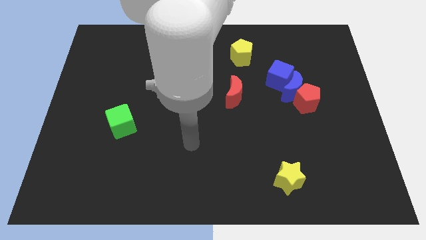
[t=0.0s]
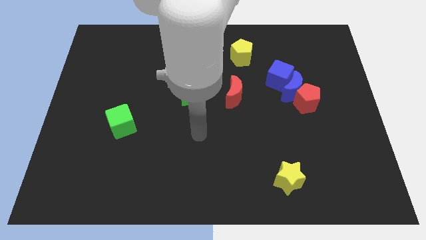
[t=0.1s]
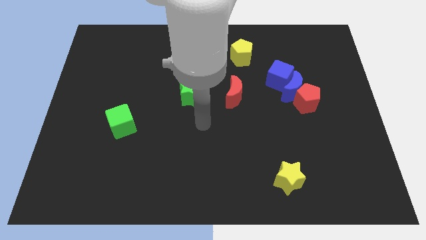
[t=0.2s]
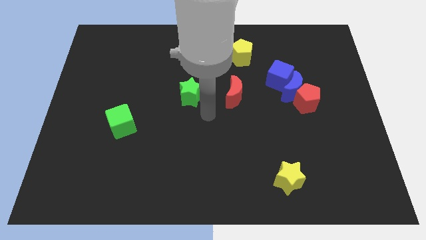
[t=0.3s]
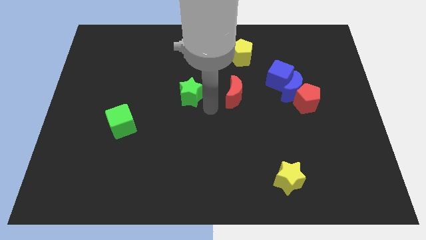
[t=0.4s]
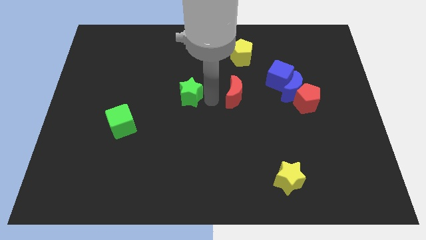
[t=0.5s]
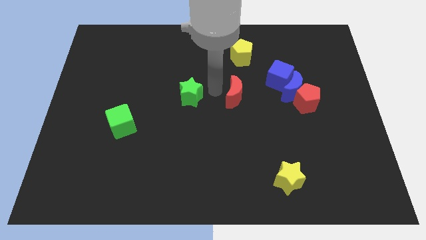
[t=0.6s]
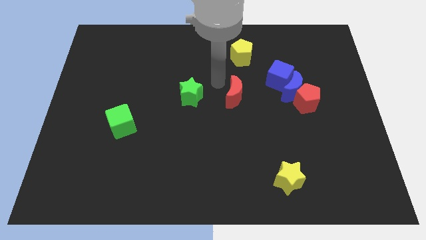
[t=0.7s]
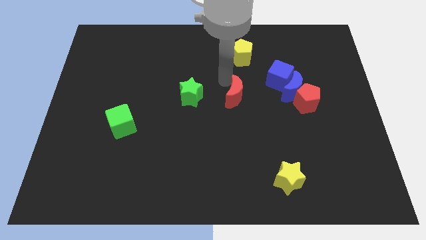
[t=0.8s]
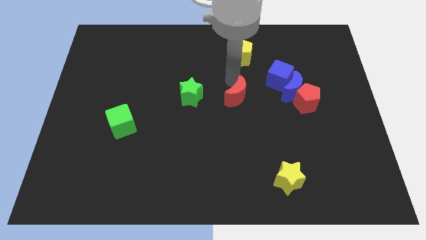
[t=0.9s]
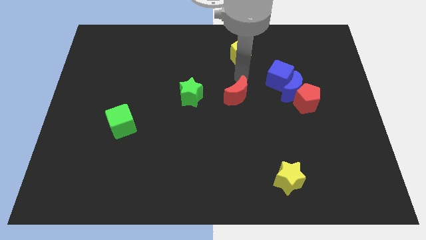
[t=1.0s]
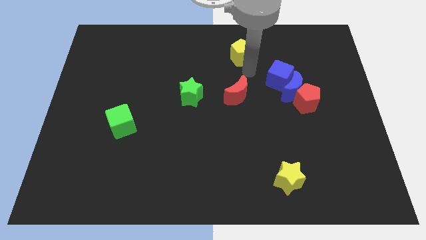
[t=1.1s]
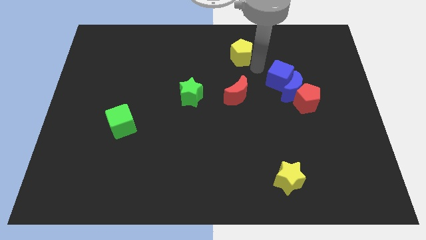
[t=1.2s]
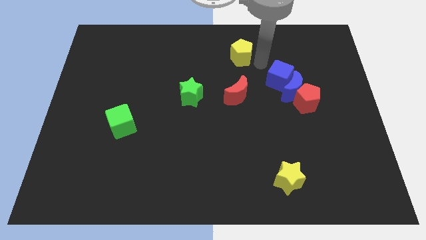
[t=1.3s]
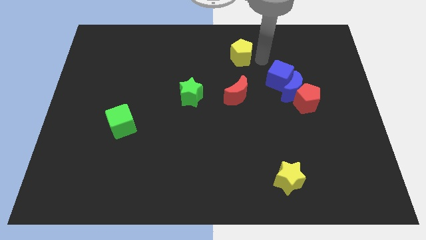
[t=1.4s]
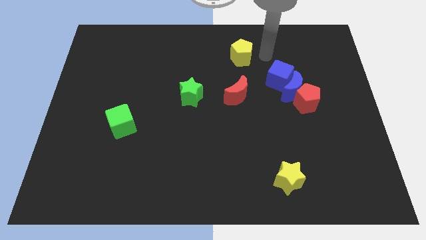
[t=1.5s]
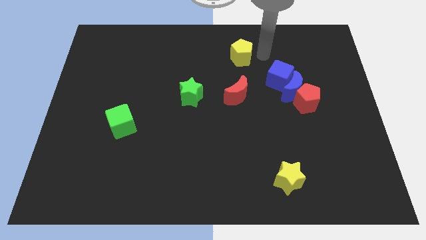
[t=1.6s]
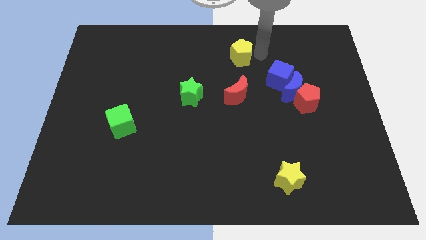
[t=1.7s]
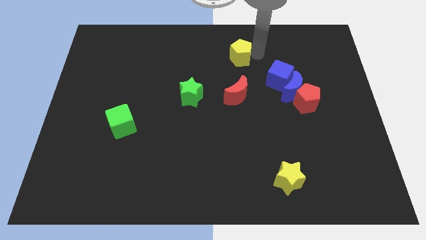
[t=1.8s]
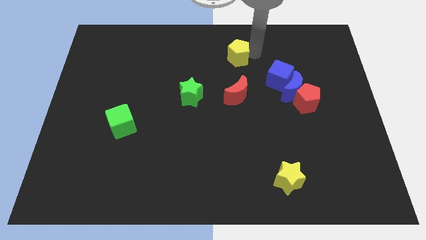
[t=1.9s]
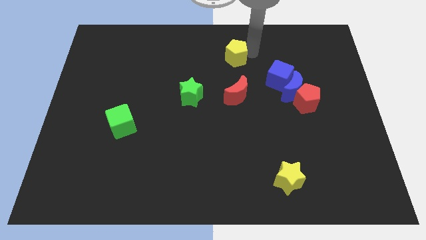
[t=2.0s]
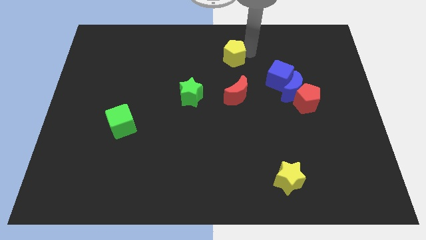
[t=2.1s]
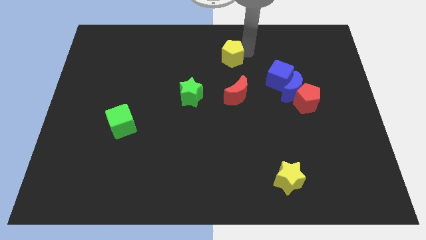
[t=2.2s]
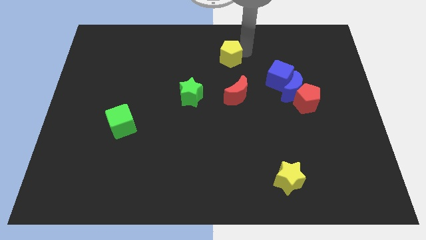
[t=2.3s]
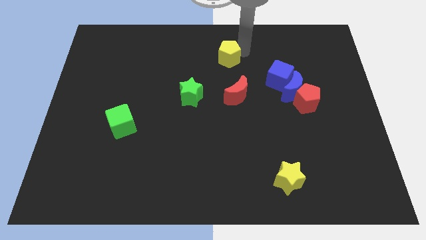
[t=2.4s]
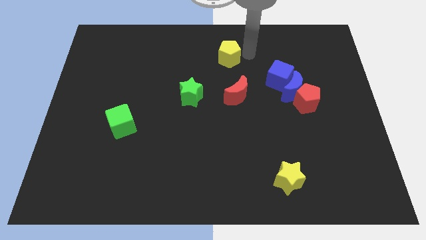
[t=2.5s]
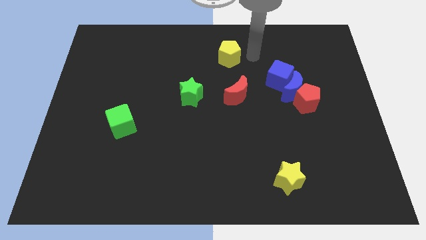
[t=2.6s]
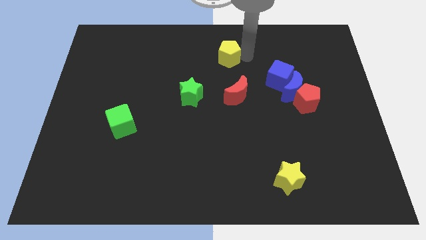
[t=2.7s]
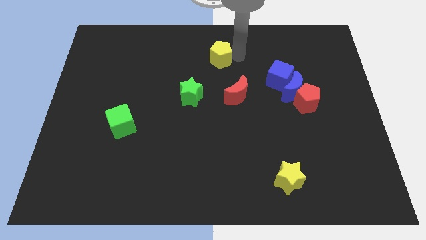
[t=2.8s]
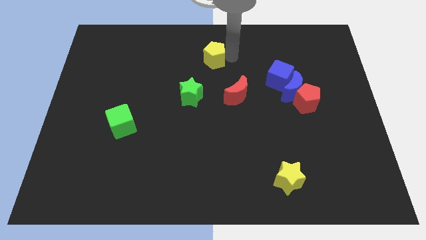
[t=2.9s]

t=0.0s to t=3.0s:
slide the yellow pentagon a bit left

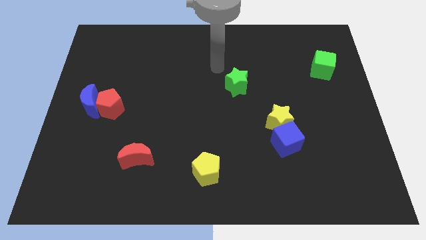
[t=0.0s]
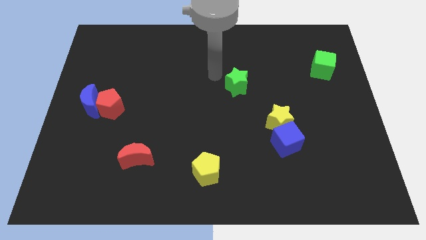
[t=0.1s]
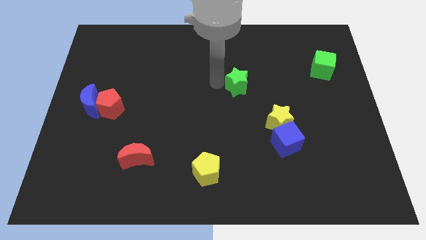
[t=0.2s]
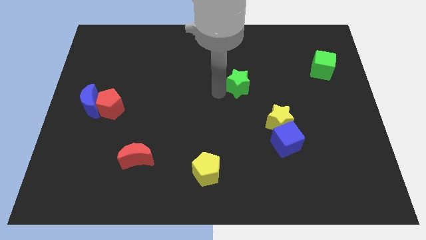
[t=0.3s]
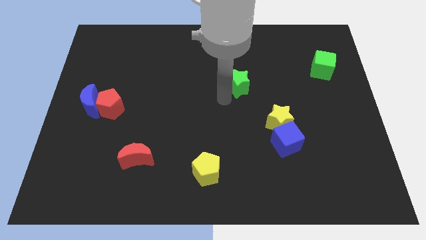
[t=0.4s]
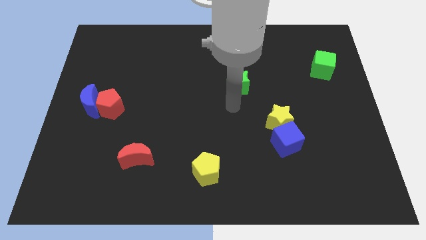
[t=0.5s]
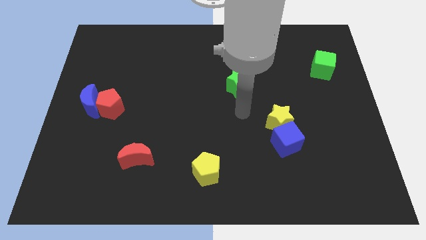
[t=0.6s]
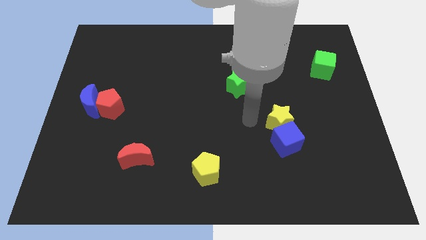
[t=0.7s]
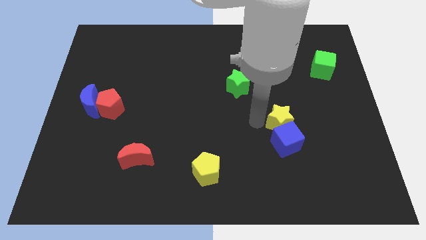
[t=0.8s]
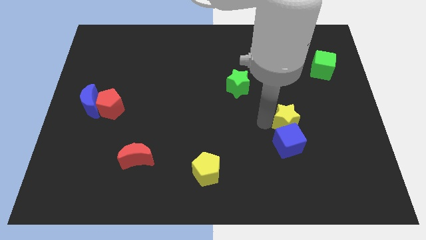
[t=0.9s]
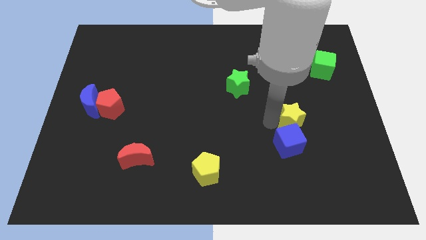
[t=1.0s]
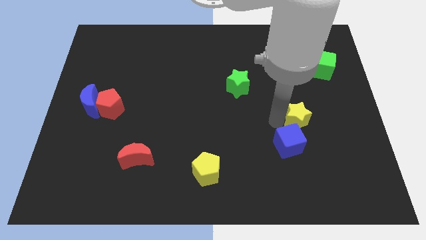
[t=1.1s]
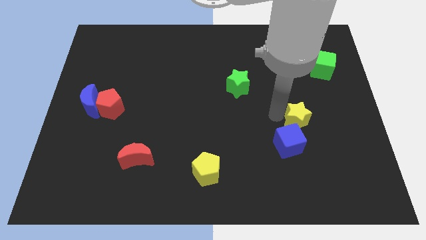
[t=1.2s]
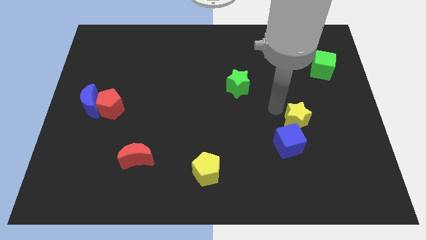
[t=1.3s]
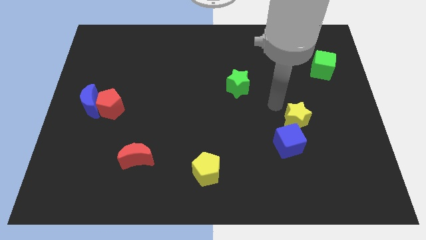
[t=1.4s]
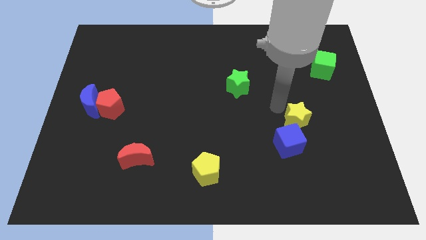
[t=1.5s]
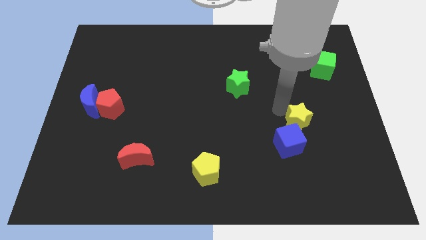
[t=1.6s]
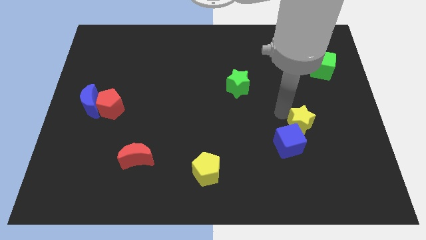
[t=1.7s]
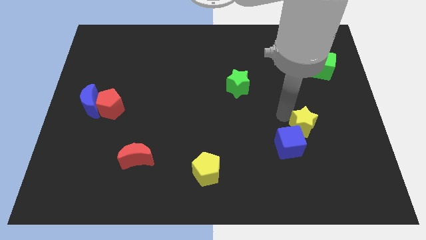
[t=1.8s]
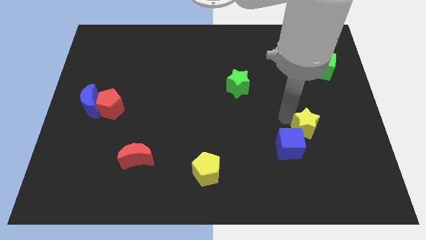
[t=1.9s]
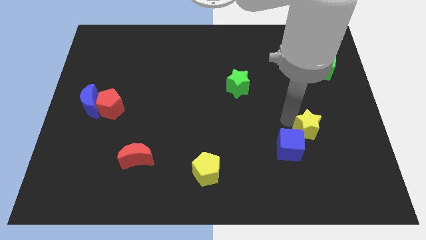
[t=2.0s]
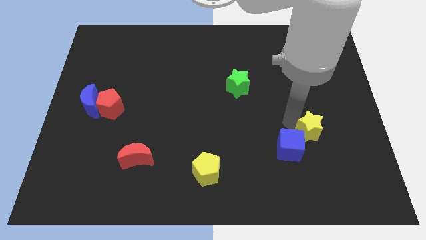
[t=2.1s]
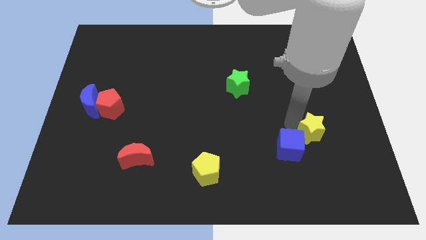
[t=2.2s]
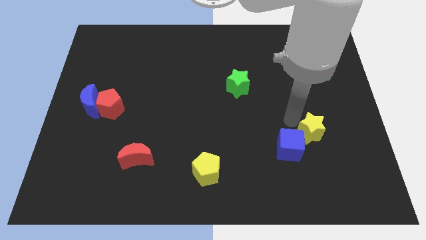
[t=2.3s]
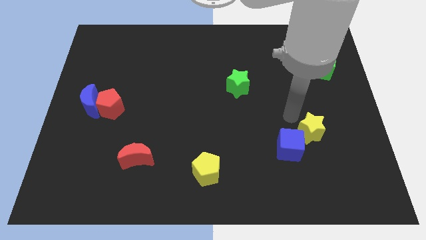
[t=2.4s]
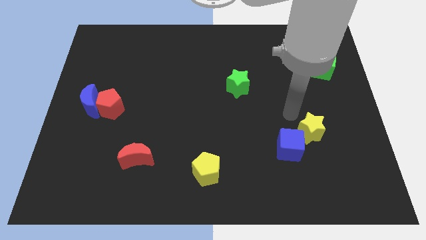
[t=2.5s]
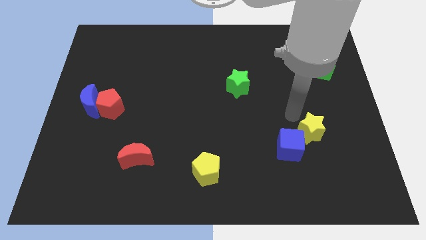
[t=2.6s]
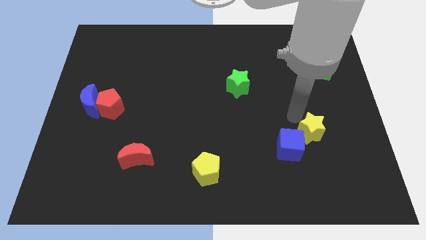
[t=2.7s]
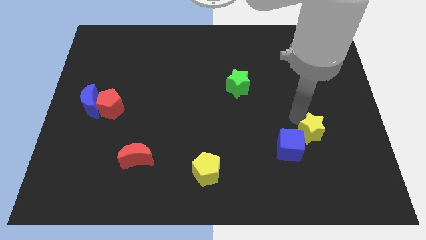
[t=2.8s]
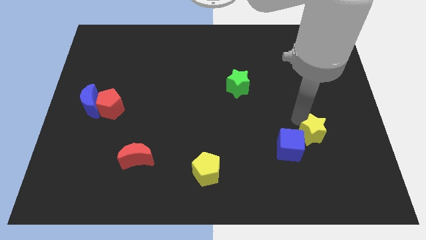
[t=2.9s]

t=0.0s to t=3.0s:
push the yellow star a little down and to the right

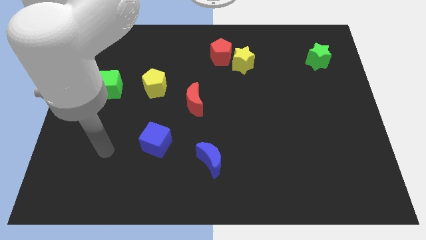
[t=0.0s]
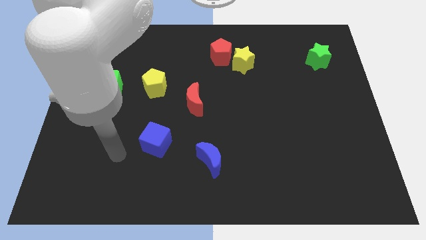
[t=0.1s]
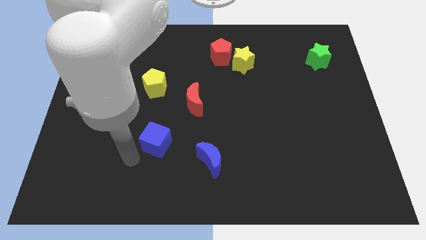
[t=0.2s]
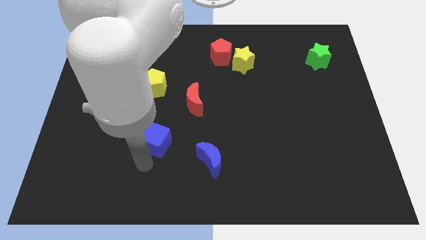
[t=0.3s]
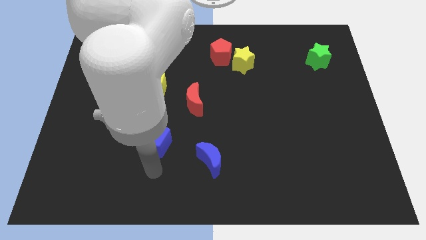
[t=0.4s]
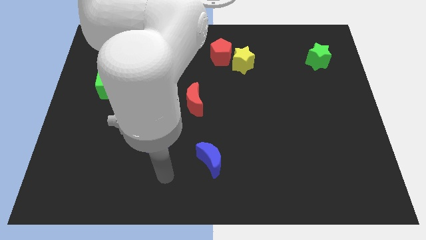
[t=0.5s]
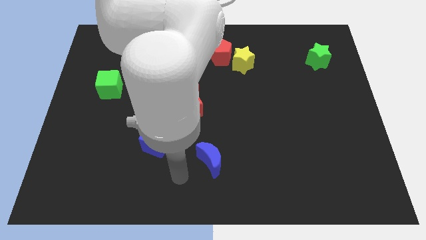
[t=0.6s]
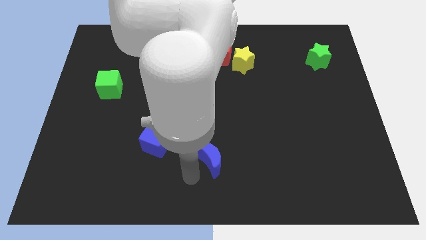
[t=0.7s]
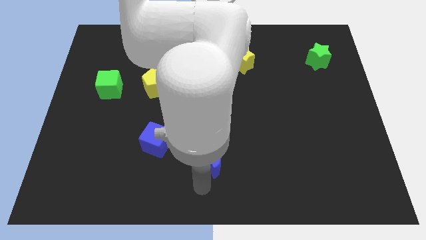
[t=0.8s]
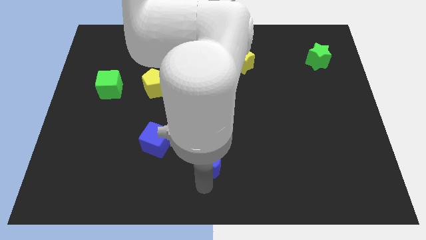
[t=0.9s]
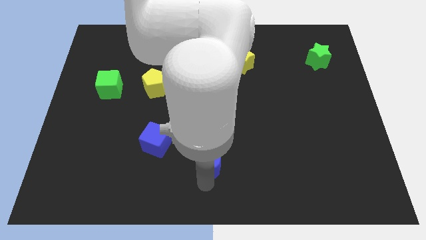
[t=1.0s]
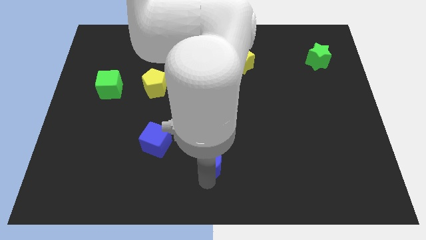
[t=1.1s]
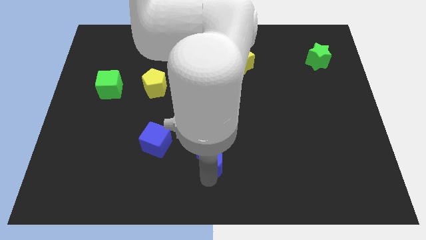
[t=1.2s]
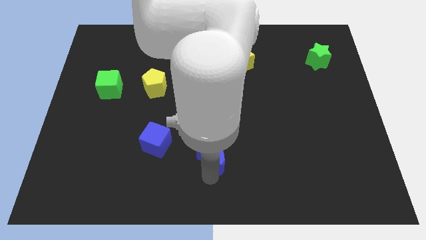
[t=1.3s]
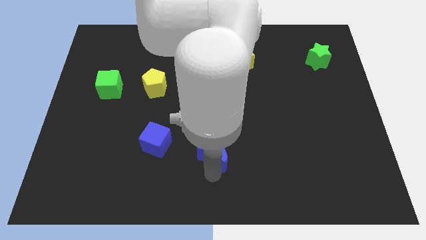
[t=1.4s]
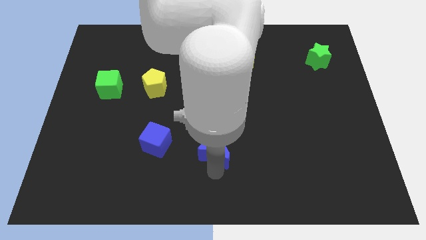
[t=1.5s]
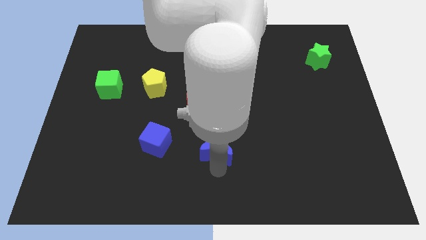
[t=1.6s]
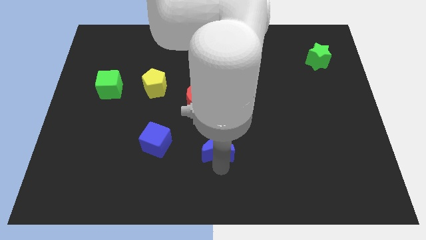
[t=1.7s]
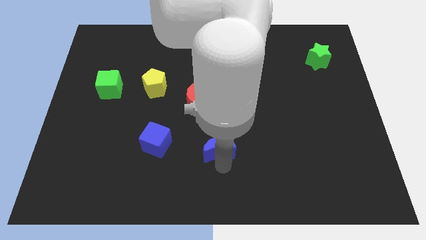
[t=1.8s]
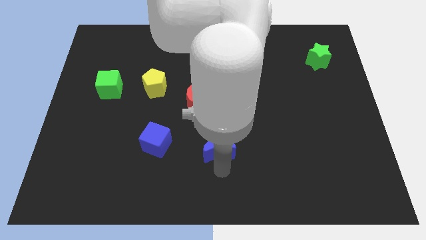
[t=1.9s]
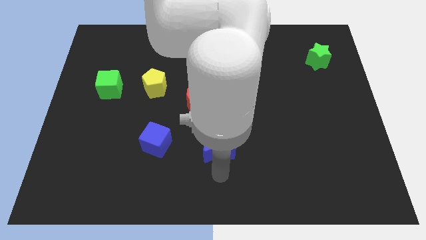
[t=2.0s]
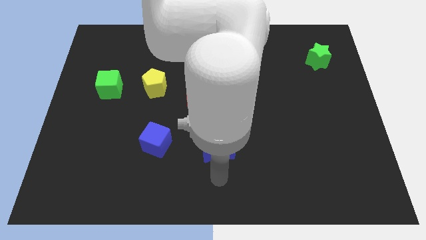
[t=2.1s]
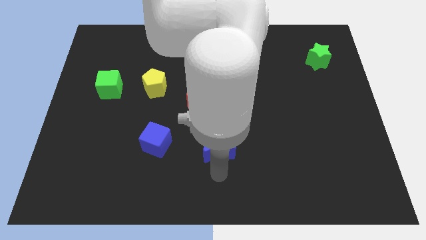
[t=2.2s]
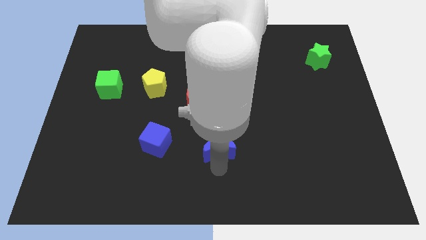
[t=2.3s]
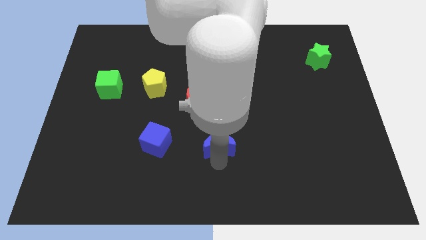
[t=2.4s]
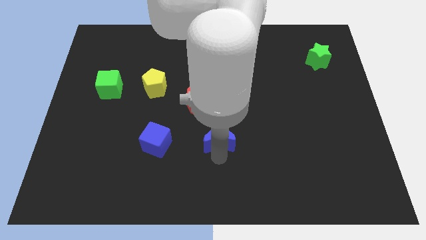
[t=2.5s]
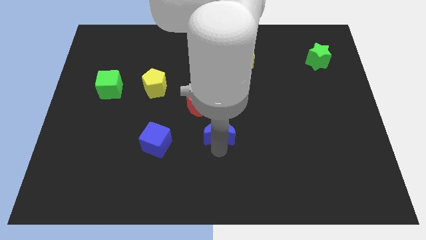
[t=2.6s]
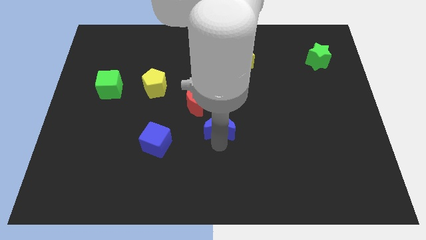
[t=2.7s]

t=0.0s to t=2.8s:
move the blue moon a little upwards
